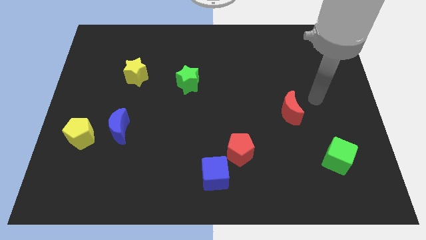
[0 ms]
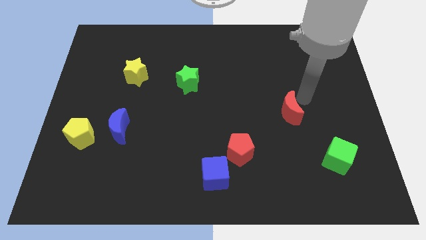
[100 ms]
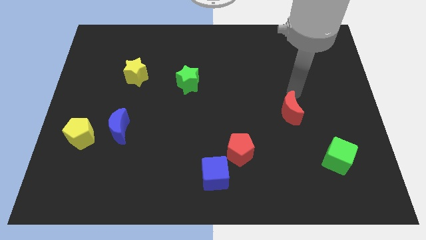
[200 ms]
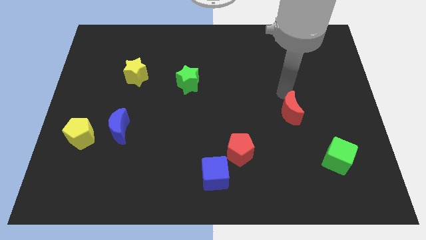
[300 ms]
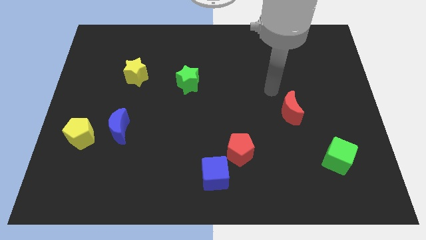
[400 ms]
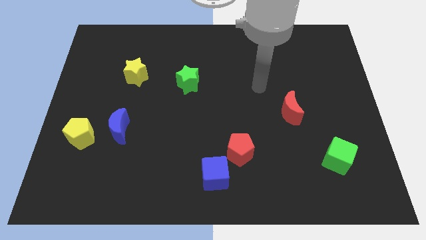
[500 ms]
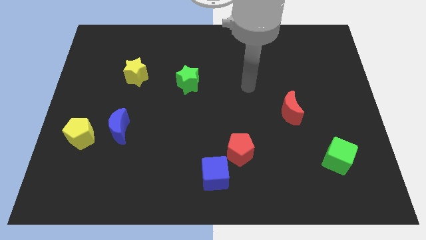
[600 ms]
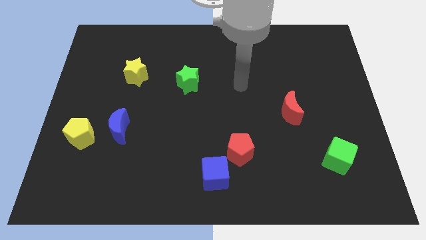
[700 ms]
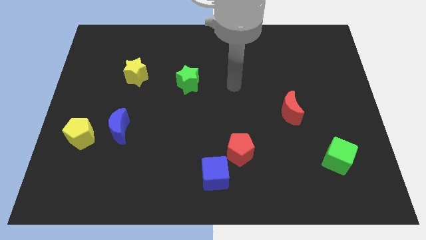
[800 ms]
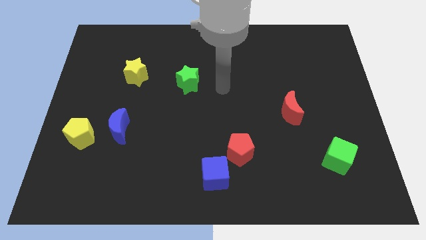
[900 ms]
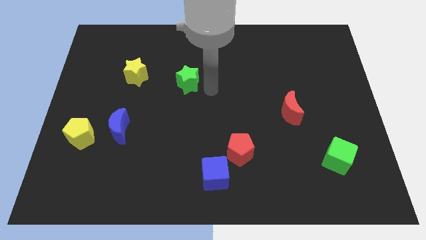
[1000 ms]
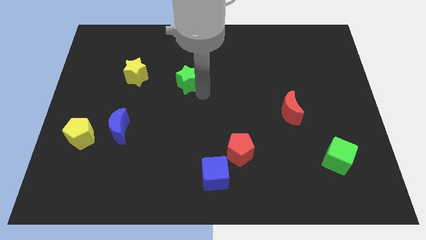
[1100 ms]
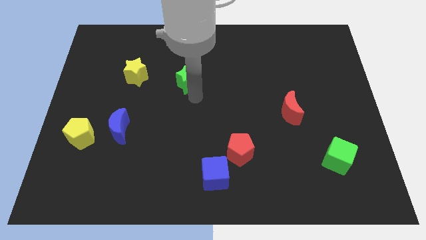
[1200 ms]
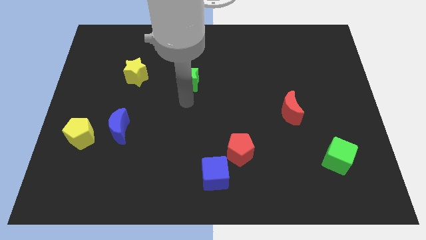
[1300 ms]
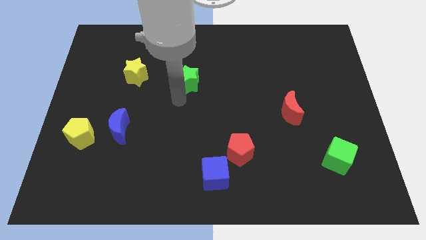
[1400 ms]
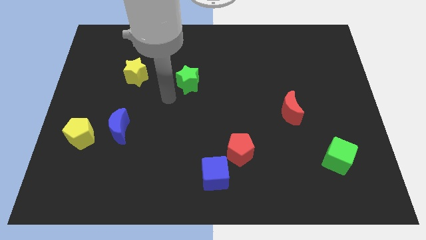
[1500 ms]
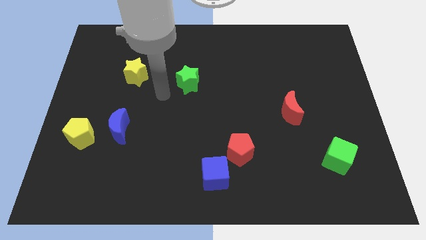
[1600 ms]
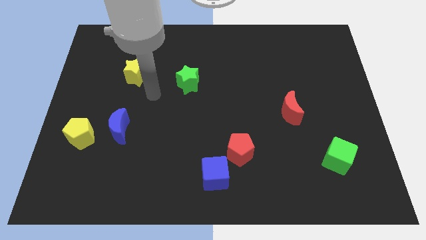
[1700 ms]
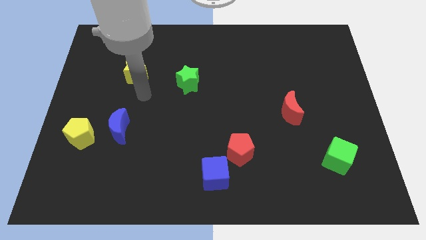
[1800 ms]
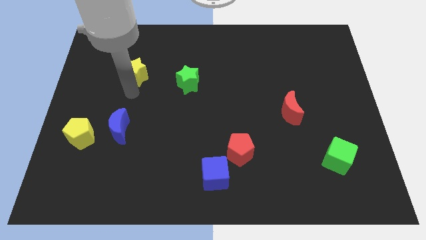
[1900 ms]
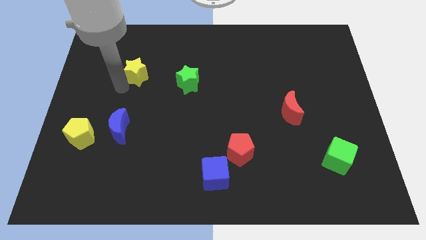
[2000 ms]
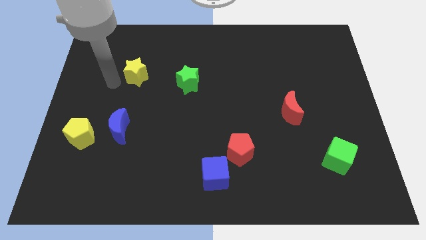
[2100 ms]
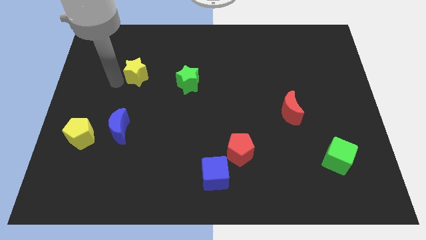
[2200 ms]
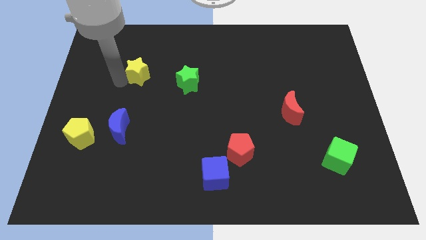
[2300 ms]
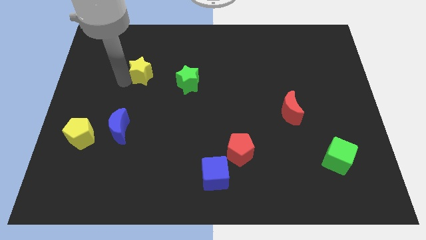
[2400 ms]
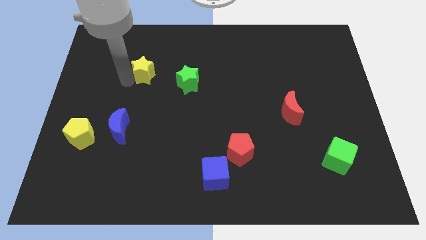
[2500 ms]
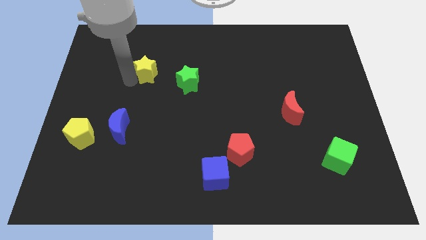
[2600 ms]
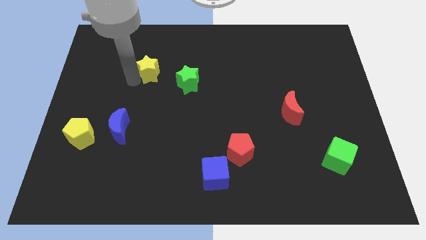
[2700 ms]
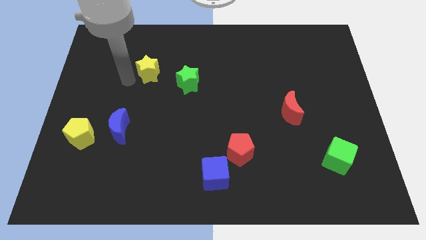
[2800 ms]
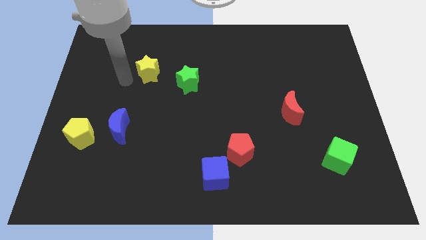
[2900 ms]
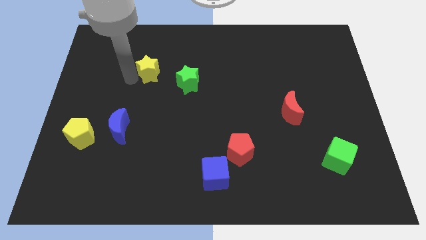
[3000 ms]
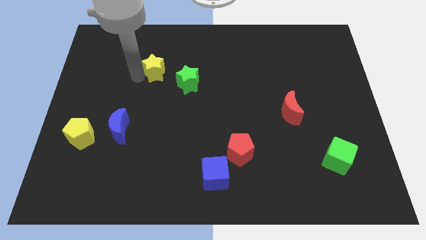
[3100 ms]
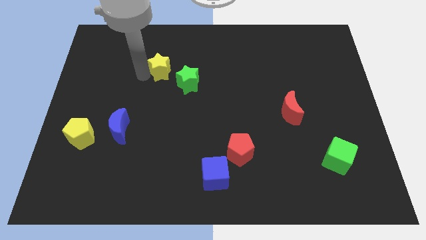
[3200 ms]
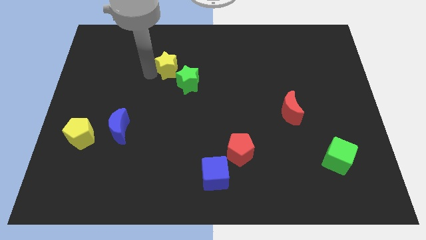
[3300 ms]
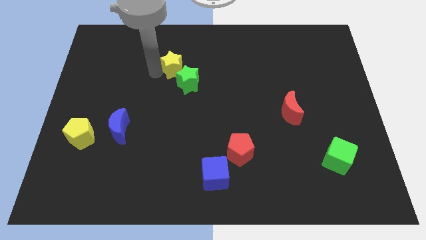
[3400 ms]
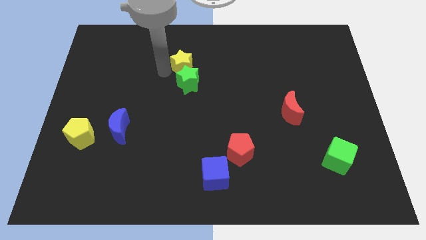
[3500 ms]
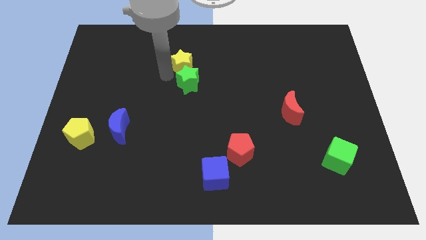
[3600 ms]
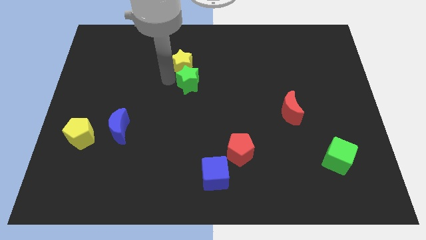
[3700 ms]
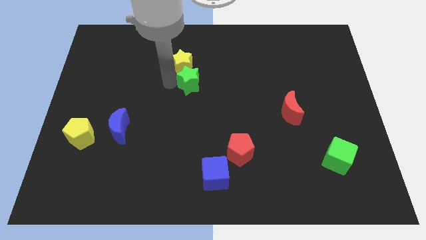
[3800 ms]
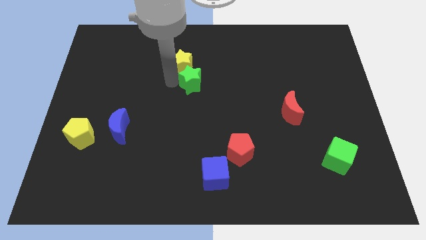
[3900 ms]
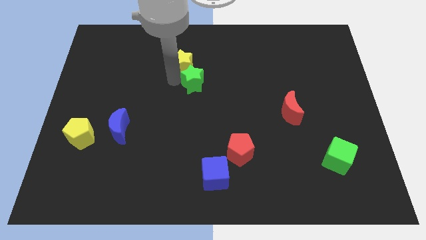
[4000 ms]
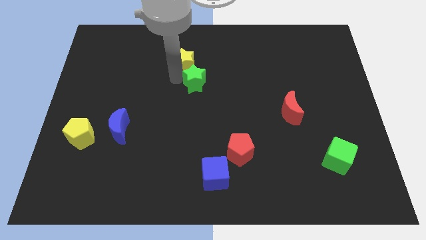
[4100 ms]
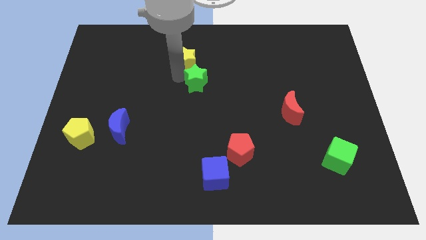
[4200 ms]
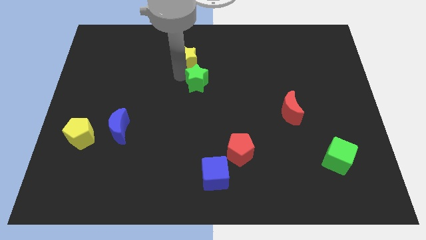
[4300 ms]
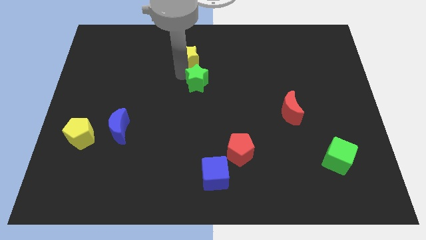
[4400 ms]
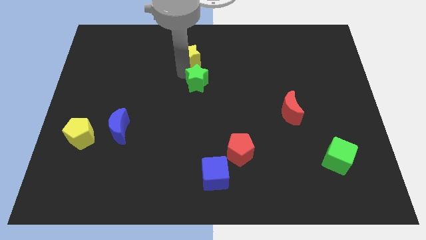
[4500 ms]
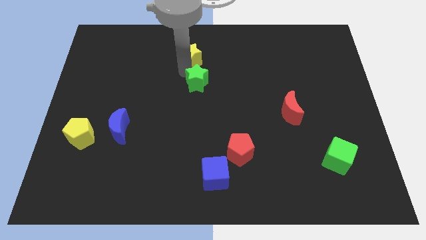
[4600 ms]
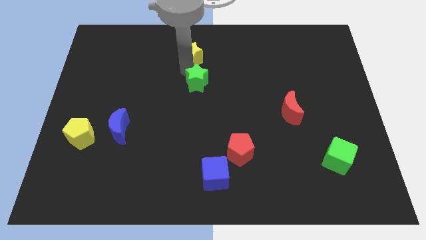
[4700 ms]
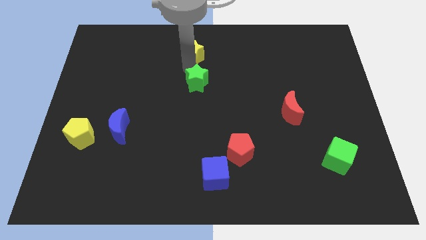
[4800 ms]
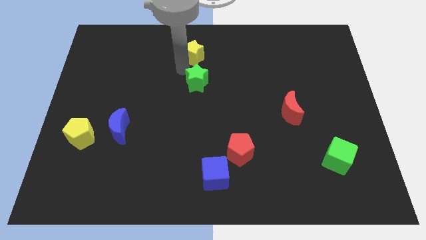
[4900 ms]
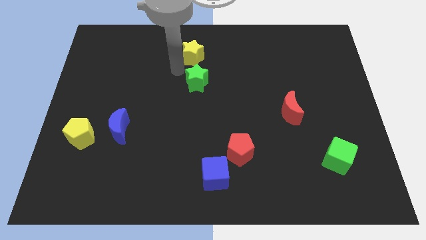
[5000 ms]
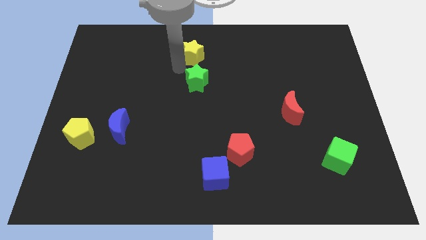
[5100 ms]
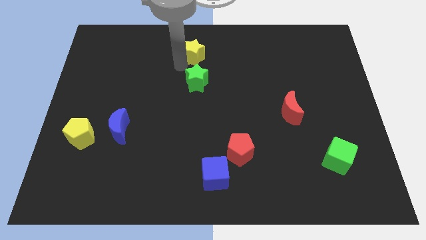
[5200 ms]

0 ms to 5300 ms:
move the yellow star to the top side

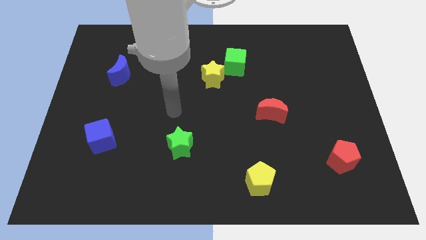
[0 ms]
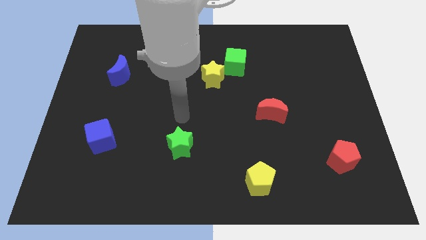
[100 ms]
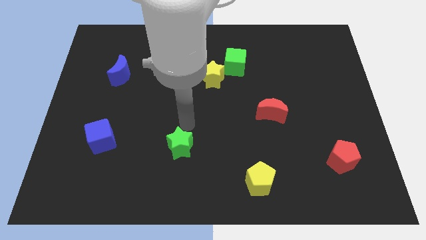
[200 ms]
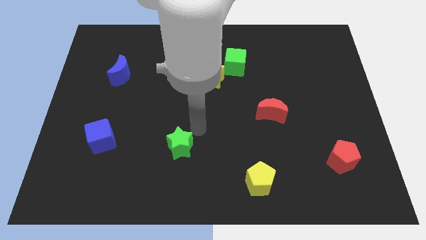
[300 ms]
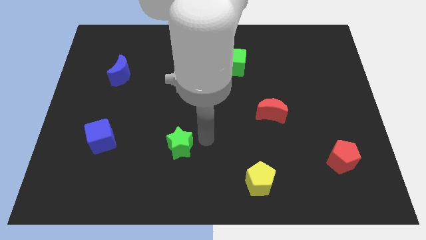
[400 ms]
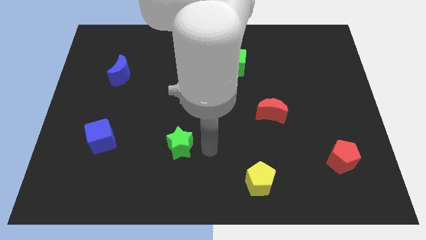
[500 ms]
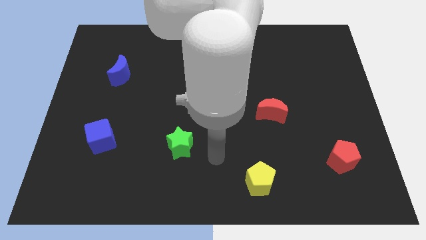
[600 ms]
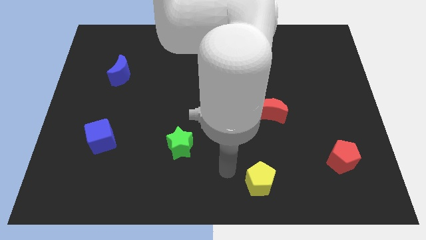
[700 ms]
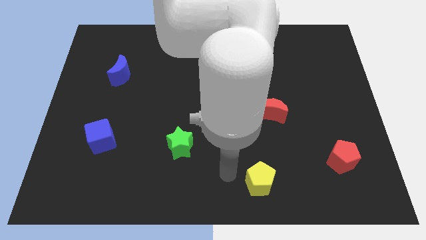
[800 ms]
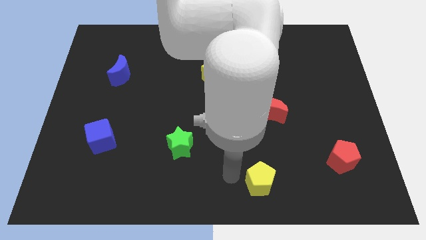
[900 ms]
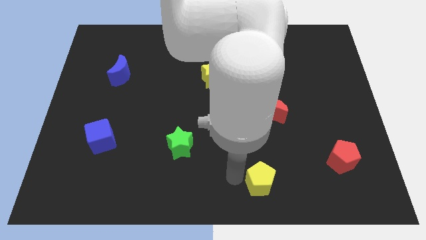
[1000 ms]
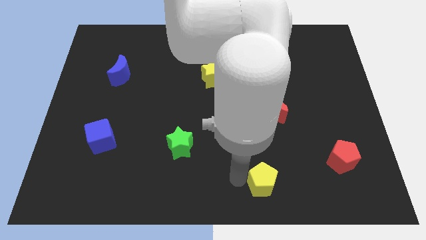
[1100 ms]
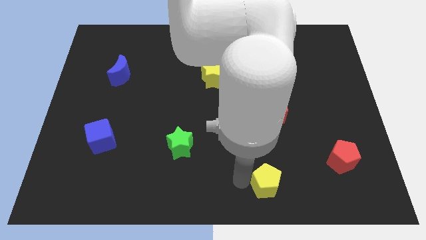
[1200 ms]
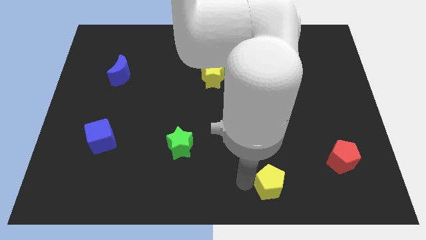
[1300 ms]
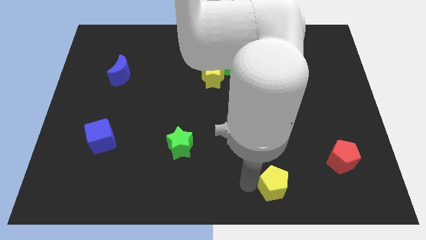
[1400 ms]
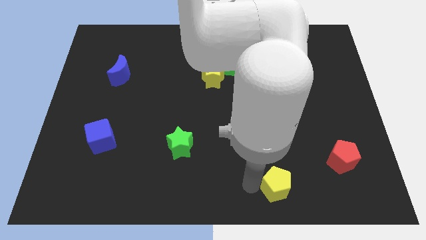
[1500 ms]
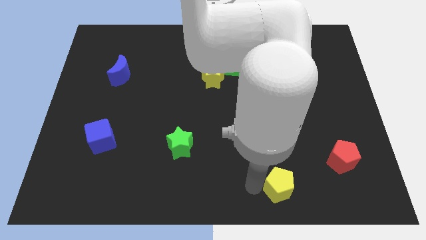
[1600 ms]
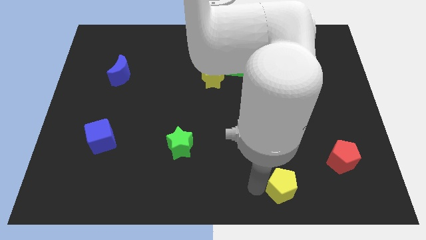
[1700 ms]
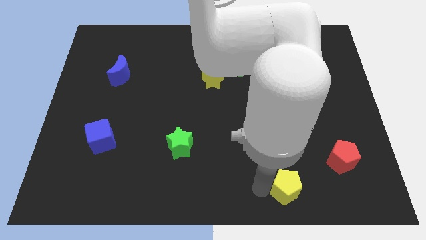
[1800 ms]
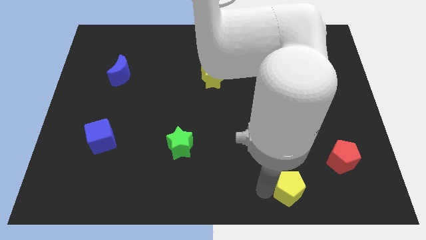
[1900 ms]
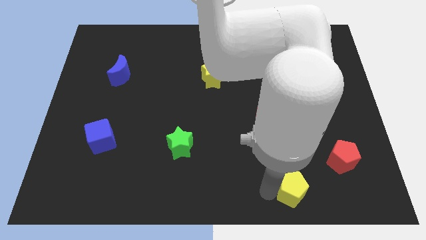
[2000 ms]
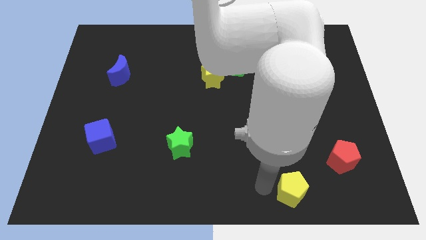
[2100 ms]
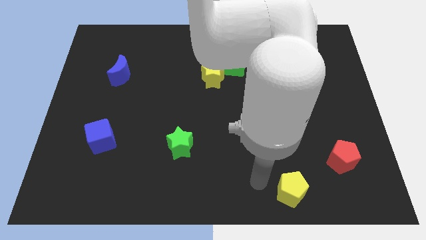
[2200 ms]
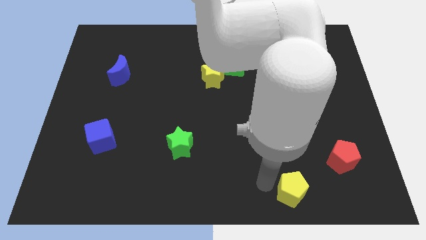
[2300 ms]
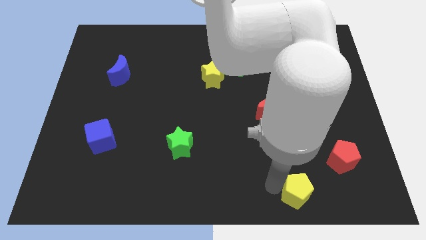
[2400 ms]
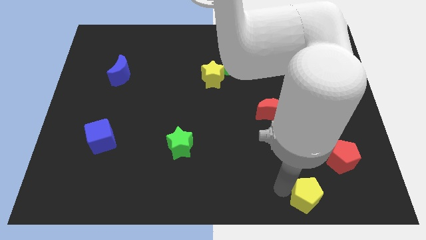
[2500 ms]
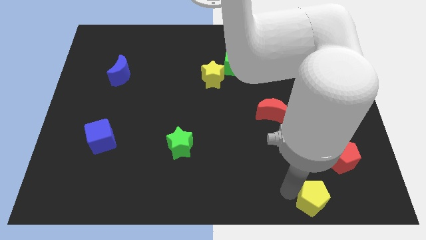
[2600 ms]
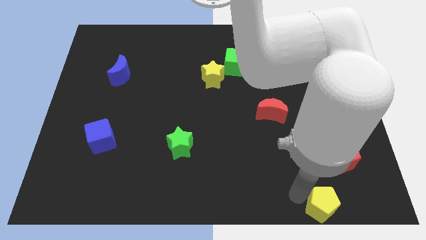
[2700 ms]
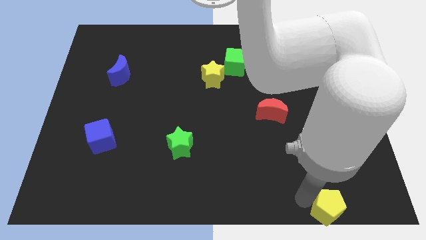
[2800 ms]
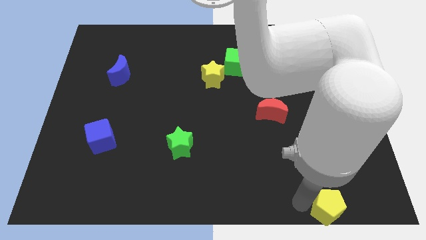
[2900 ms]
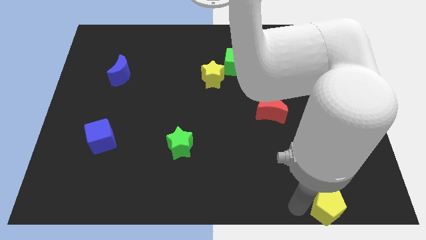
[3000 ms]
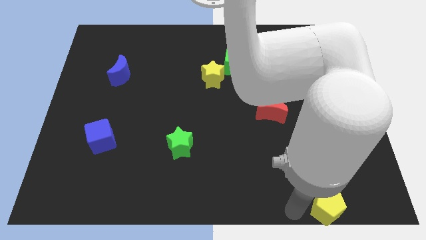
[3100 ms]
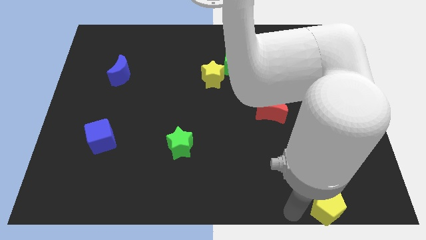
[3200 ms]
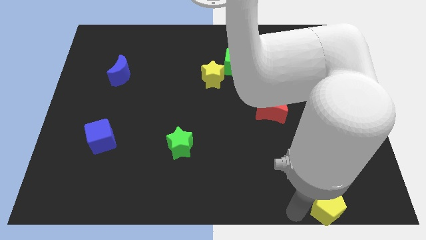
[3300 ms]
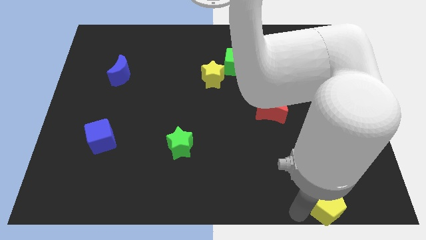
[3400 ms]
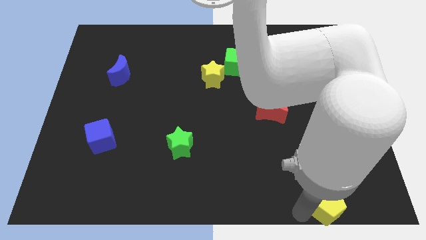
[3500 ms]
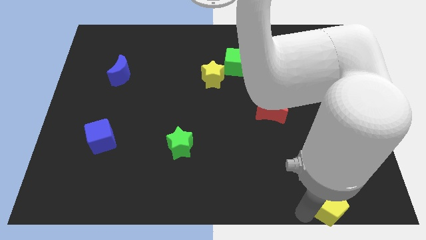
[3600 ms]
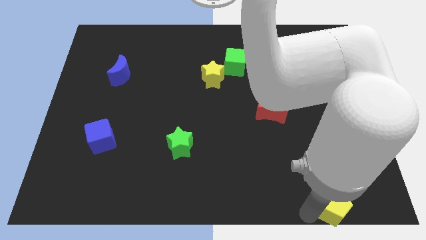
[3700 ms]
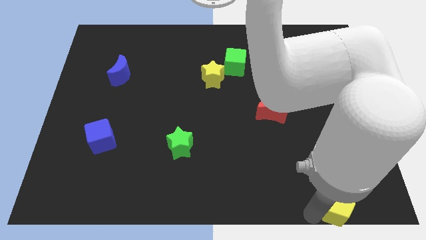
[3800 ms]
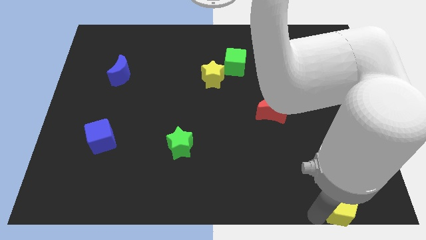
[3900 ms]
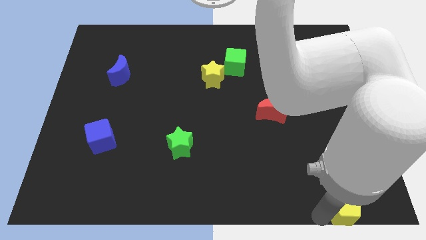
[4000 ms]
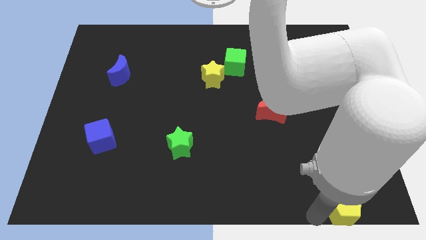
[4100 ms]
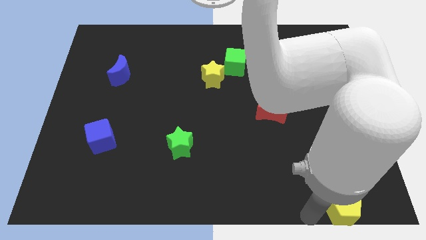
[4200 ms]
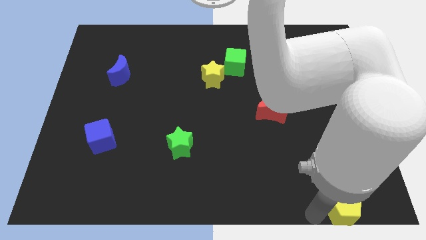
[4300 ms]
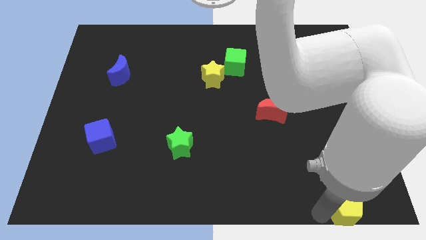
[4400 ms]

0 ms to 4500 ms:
push the yellow pentagon to the lower right corner
